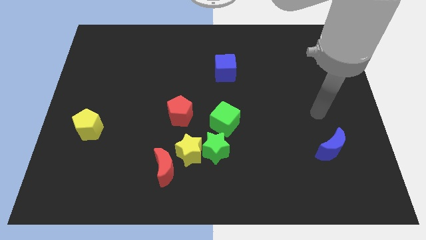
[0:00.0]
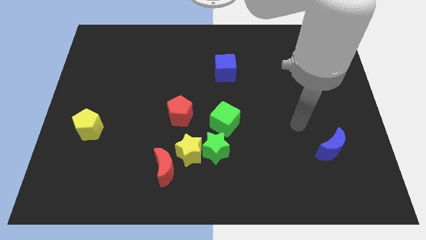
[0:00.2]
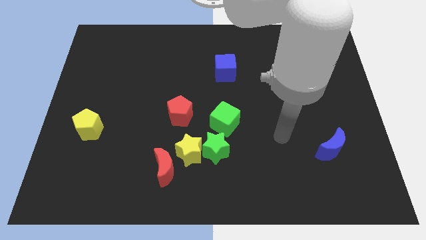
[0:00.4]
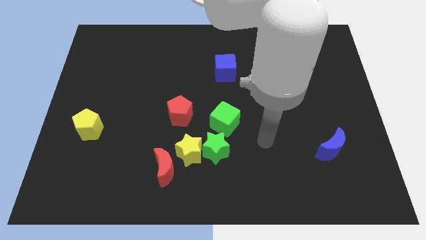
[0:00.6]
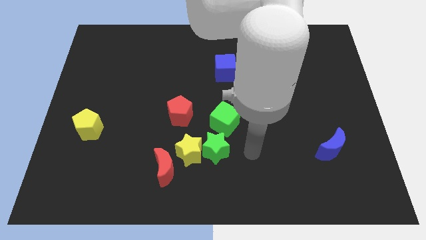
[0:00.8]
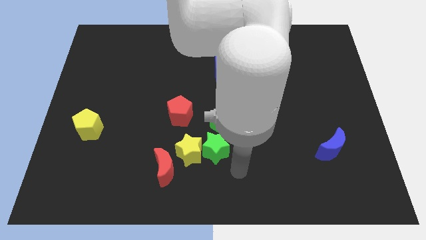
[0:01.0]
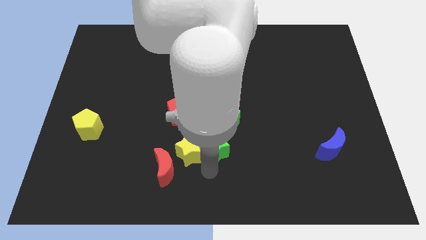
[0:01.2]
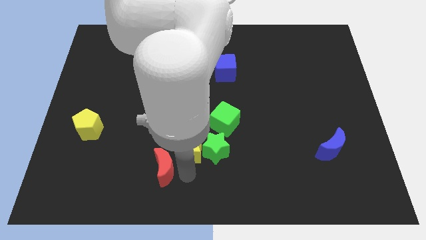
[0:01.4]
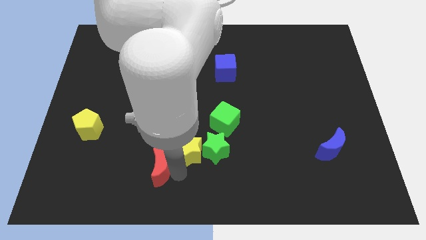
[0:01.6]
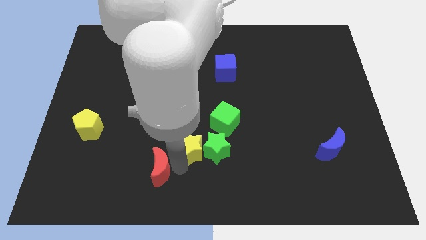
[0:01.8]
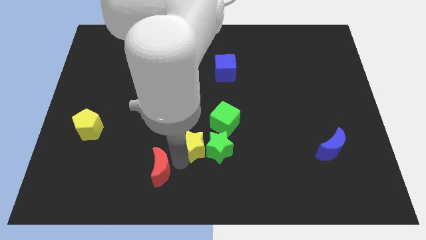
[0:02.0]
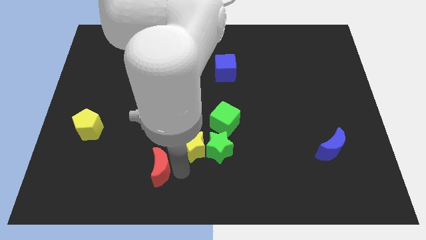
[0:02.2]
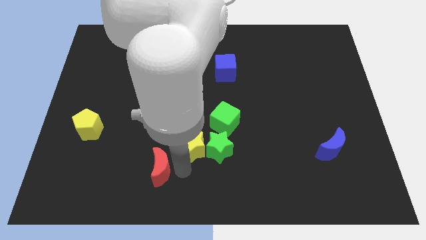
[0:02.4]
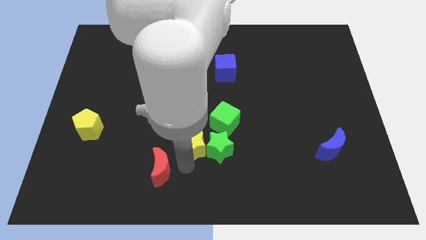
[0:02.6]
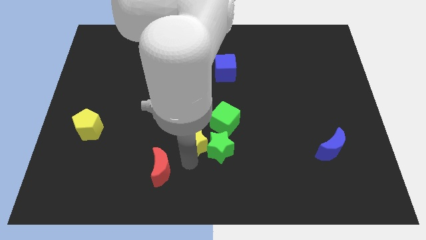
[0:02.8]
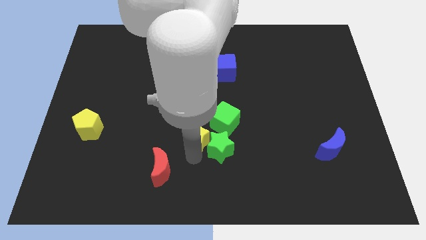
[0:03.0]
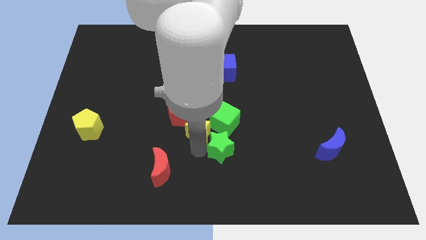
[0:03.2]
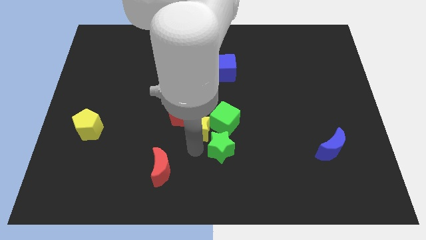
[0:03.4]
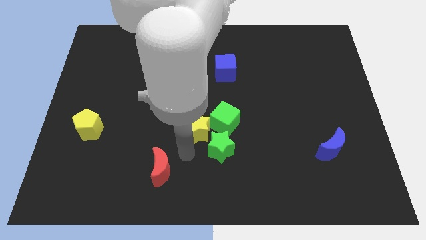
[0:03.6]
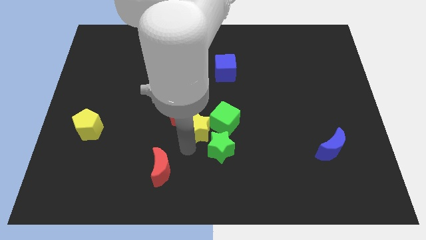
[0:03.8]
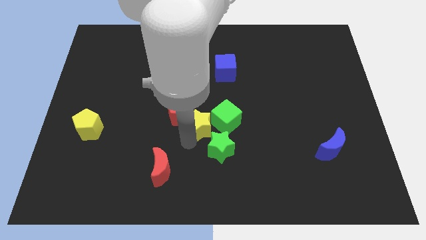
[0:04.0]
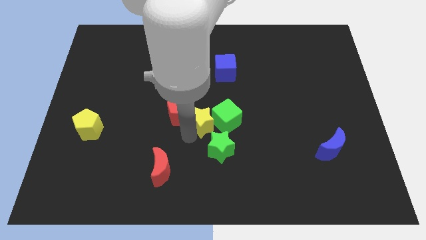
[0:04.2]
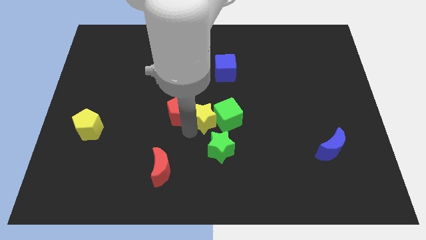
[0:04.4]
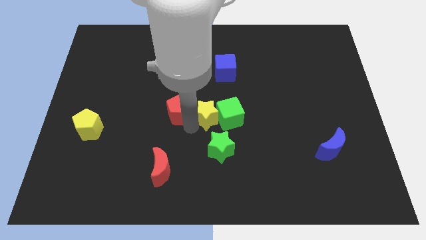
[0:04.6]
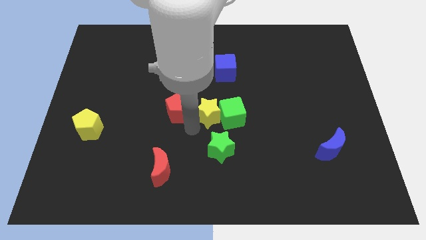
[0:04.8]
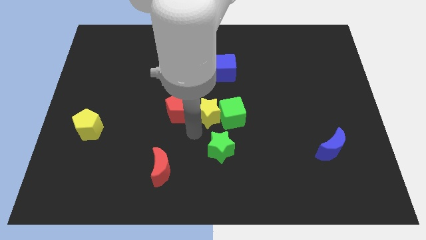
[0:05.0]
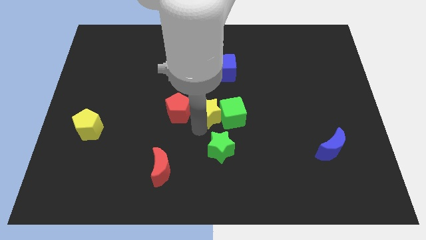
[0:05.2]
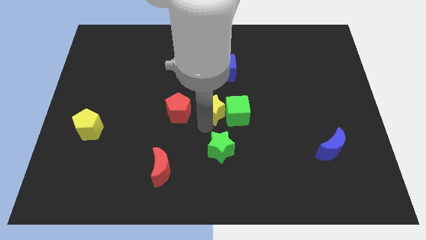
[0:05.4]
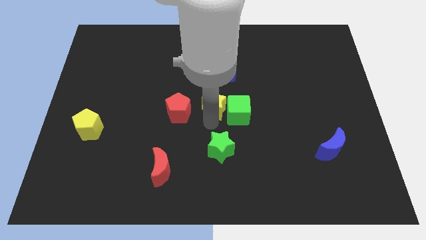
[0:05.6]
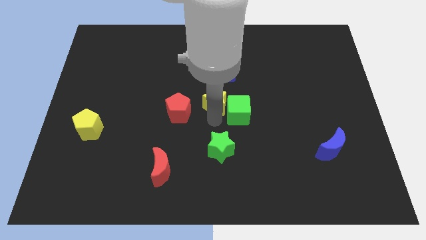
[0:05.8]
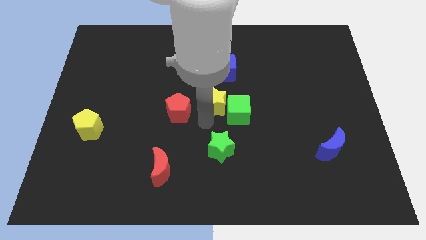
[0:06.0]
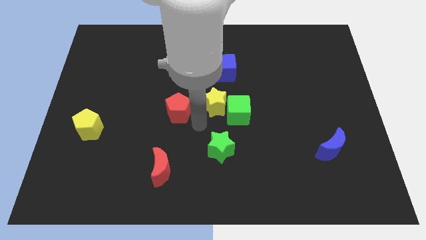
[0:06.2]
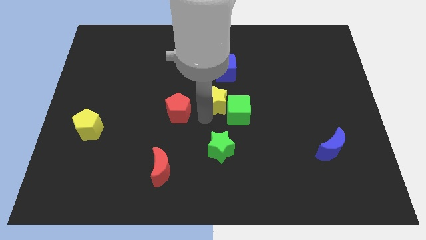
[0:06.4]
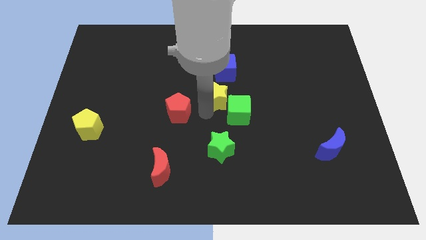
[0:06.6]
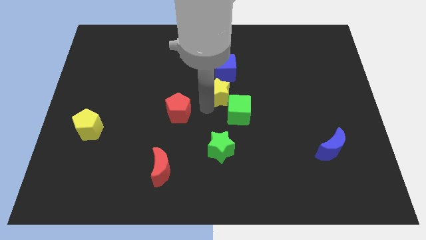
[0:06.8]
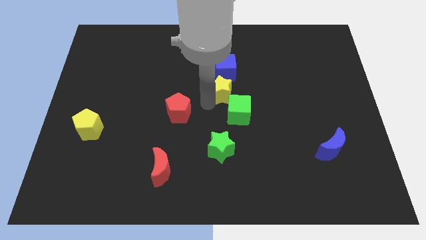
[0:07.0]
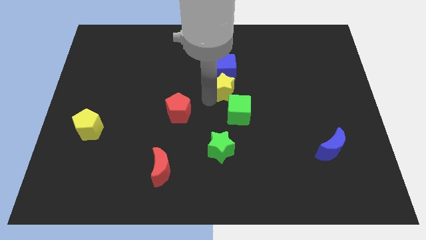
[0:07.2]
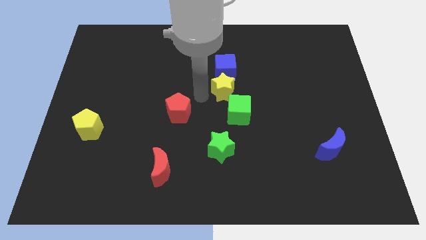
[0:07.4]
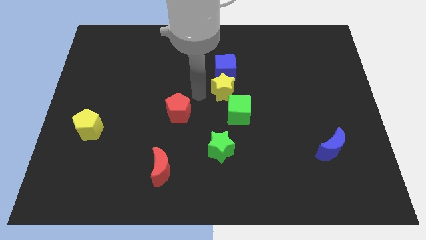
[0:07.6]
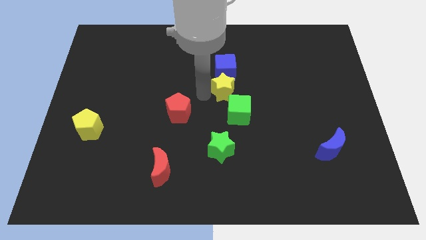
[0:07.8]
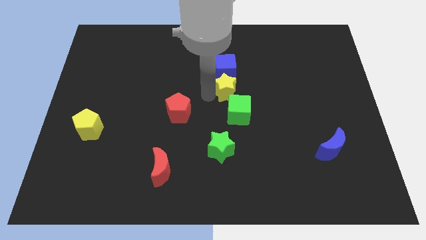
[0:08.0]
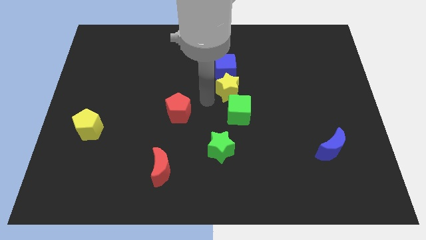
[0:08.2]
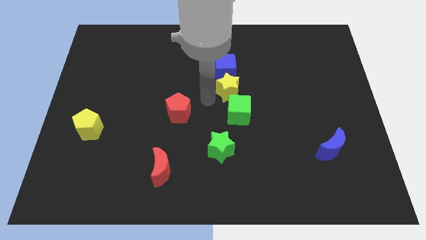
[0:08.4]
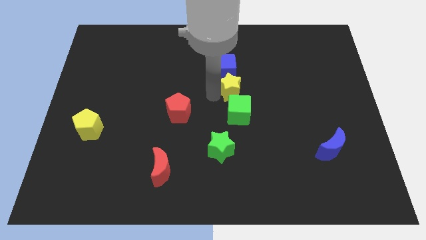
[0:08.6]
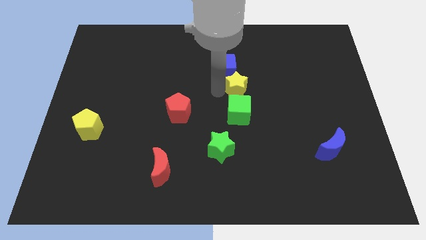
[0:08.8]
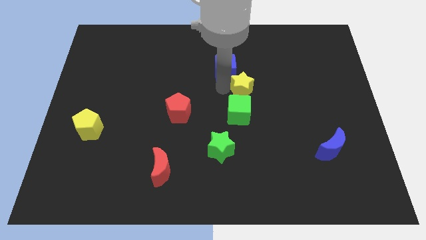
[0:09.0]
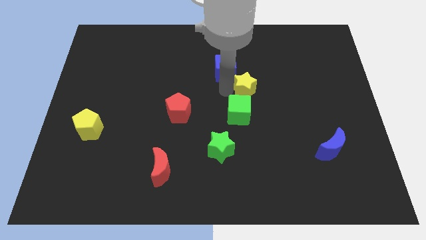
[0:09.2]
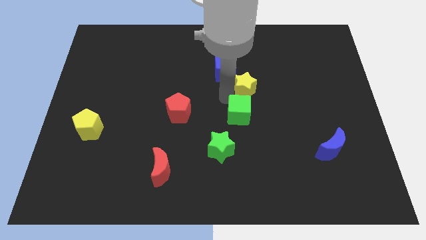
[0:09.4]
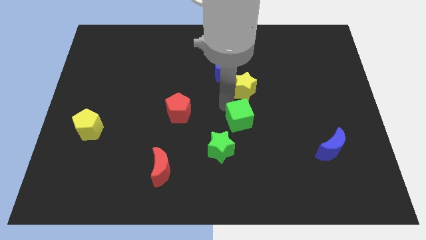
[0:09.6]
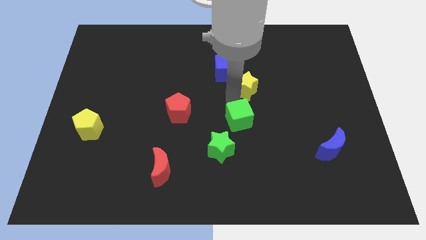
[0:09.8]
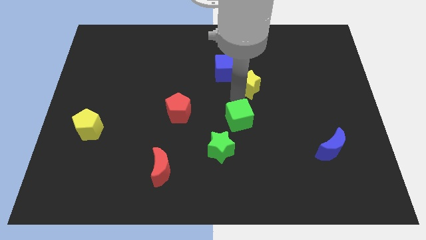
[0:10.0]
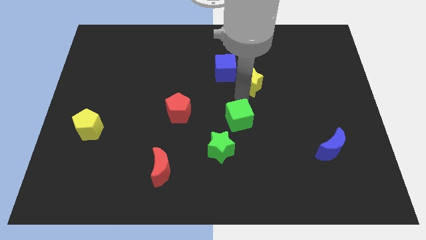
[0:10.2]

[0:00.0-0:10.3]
push the yellow star to the right side of the blue cube

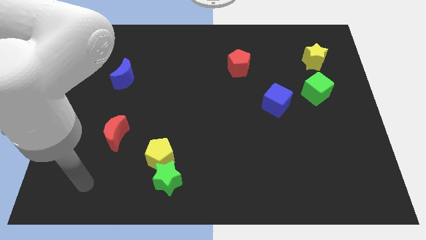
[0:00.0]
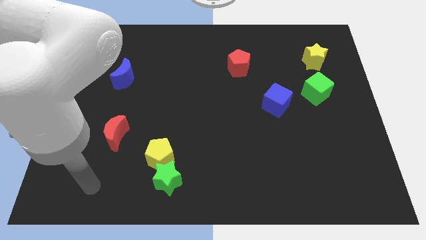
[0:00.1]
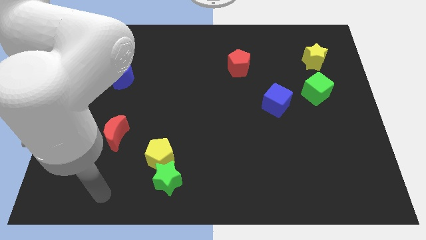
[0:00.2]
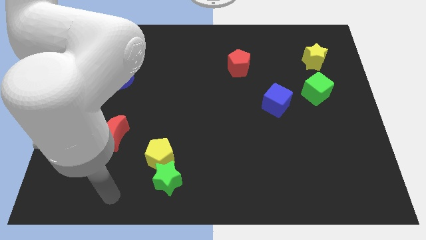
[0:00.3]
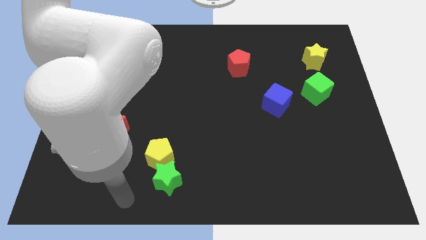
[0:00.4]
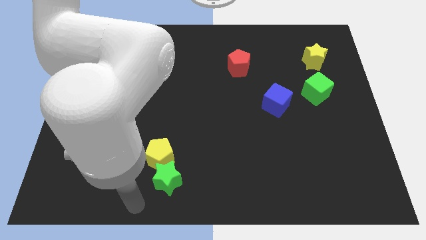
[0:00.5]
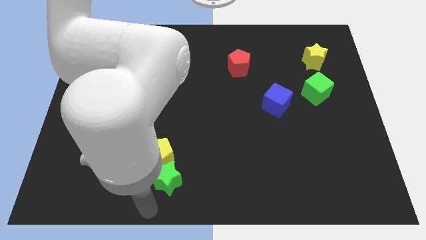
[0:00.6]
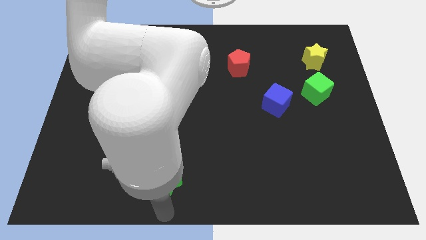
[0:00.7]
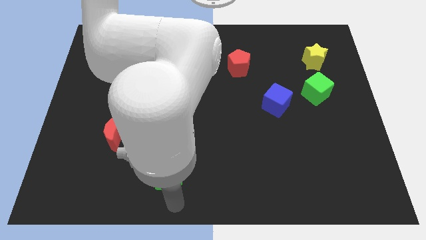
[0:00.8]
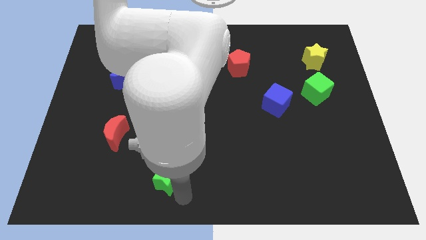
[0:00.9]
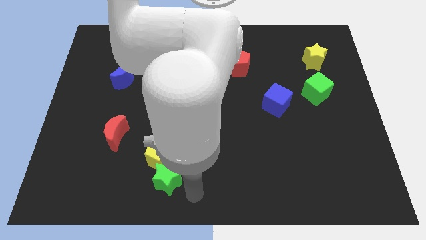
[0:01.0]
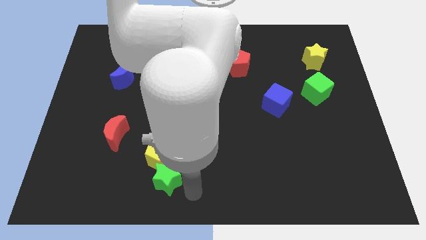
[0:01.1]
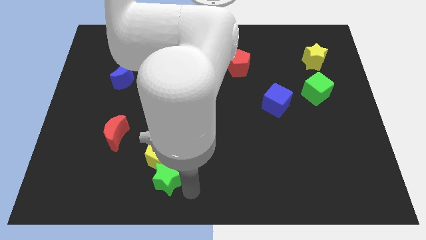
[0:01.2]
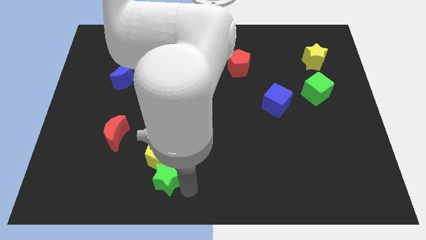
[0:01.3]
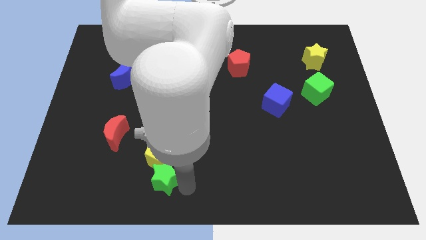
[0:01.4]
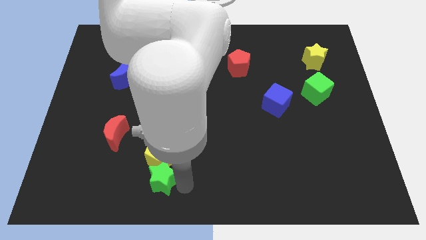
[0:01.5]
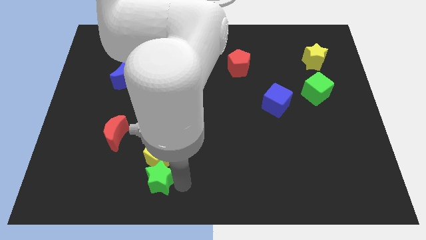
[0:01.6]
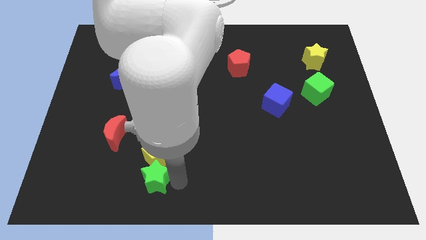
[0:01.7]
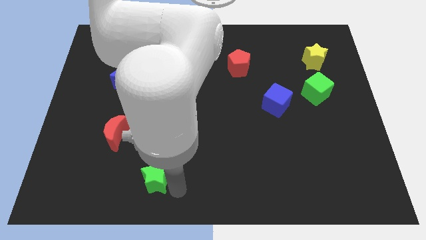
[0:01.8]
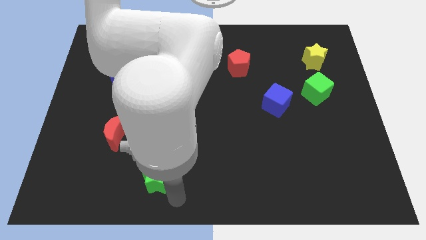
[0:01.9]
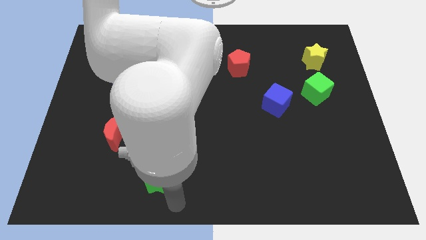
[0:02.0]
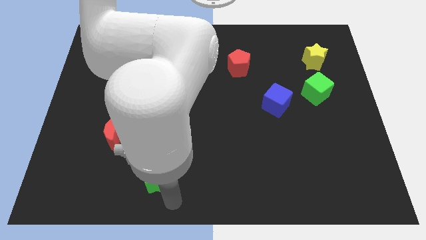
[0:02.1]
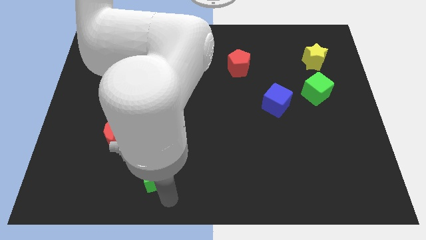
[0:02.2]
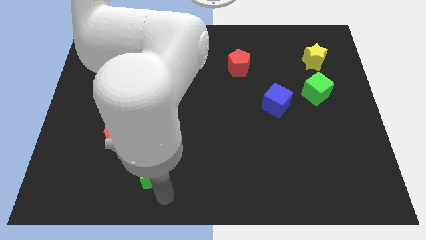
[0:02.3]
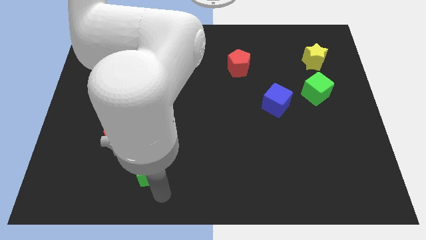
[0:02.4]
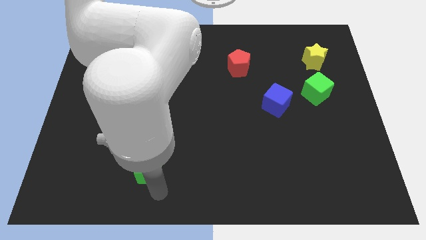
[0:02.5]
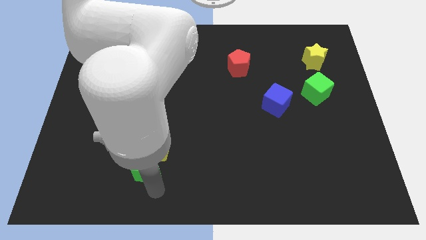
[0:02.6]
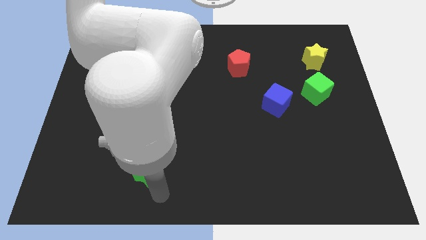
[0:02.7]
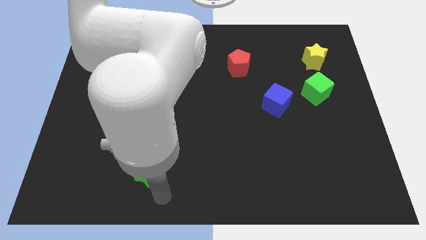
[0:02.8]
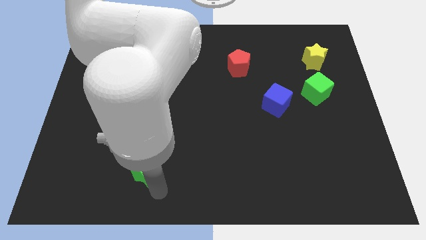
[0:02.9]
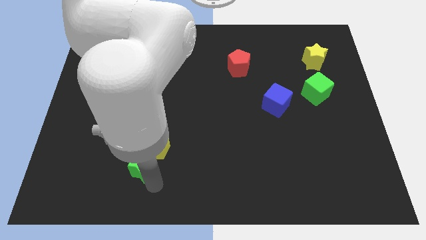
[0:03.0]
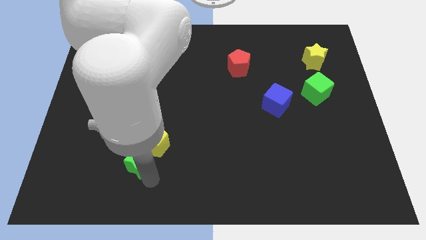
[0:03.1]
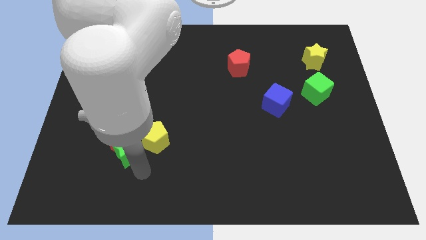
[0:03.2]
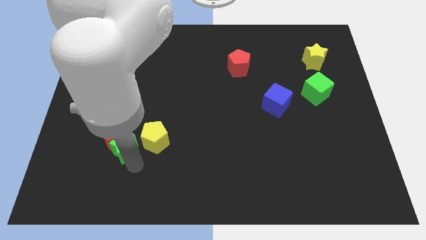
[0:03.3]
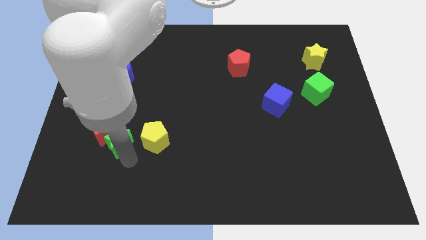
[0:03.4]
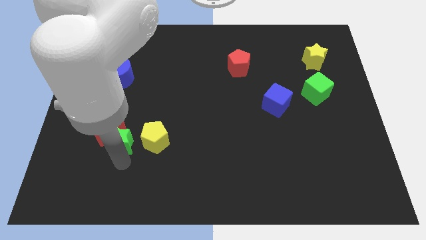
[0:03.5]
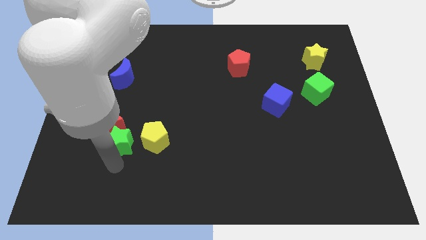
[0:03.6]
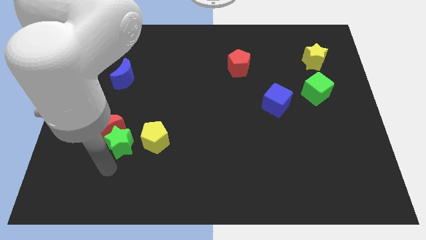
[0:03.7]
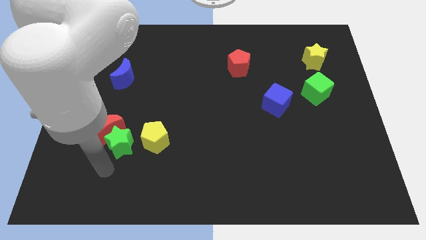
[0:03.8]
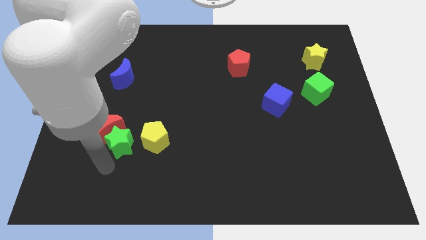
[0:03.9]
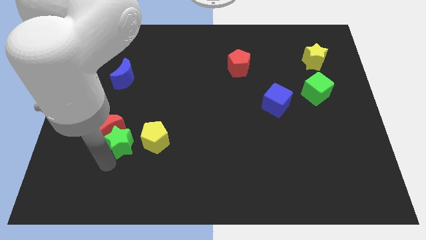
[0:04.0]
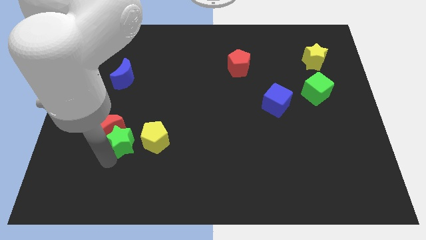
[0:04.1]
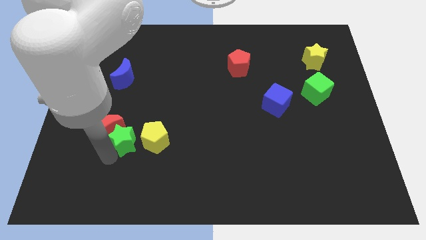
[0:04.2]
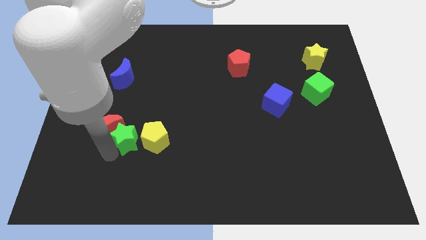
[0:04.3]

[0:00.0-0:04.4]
push the green star to the top left of the yellow pentagon
